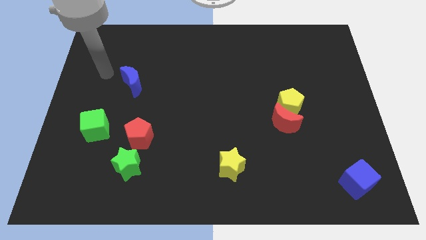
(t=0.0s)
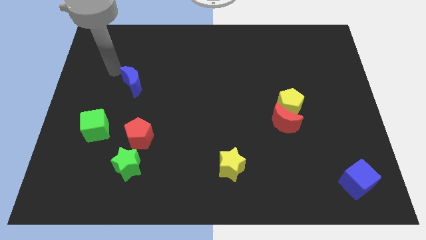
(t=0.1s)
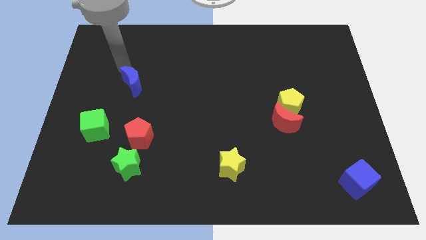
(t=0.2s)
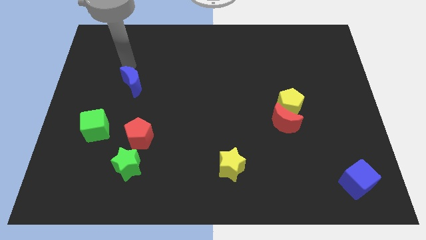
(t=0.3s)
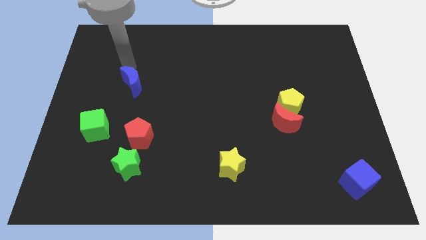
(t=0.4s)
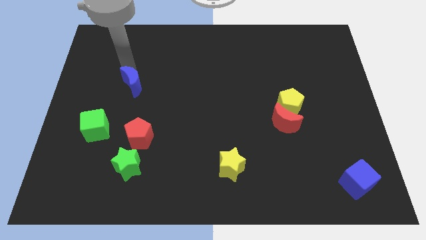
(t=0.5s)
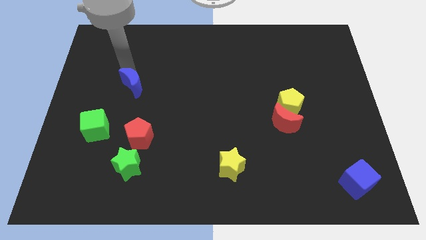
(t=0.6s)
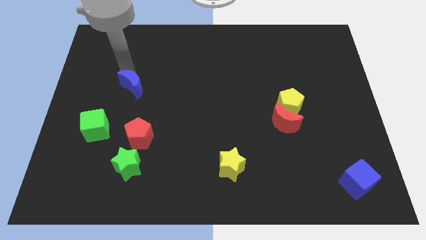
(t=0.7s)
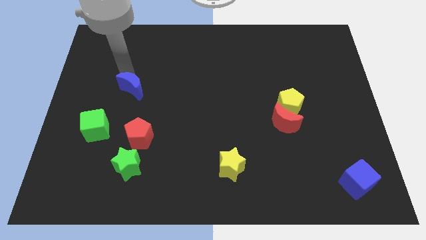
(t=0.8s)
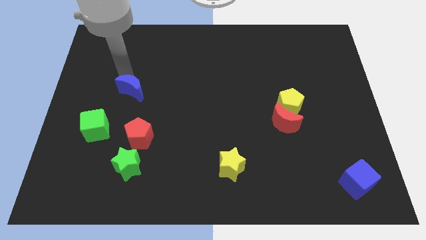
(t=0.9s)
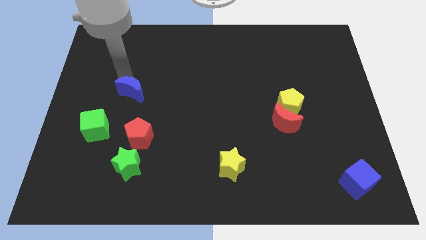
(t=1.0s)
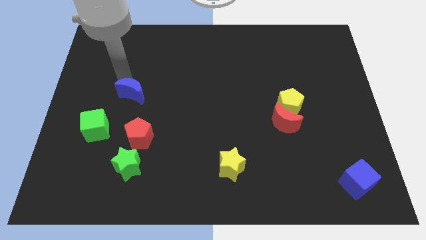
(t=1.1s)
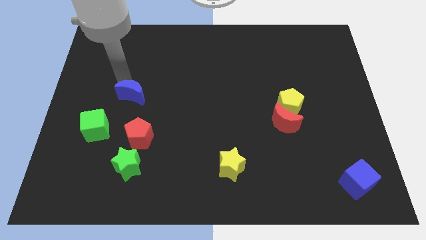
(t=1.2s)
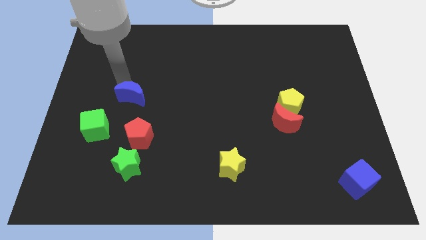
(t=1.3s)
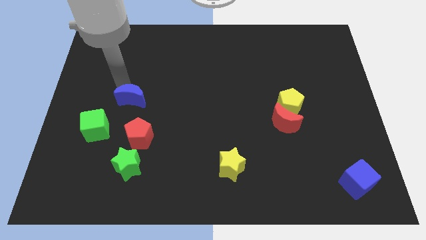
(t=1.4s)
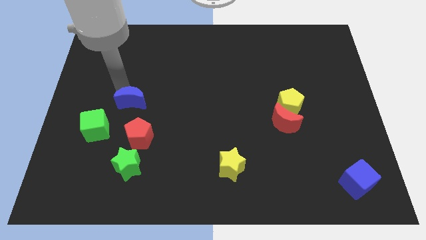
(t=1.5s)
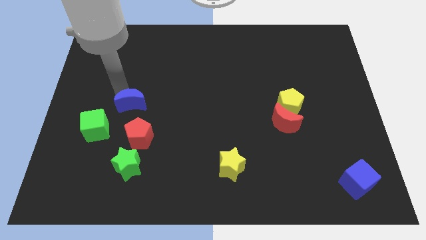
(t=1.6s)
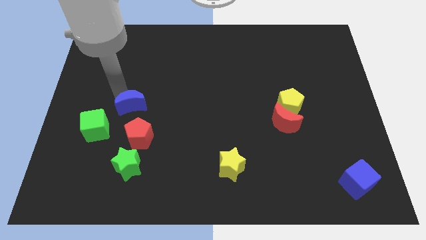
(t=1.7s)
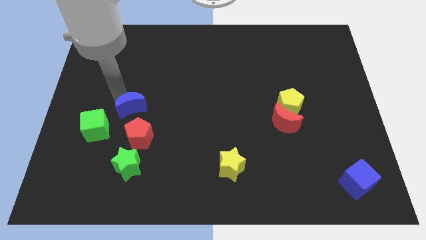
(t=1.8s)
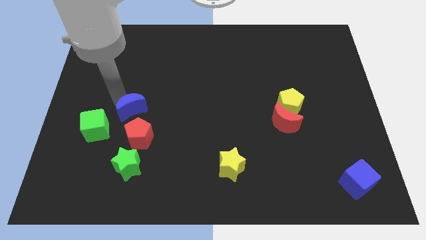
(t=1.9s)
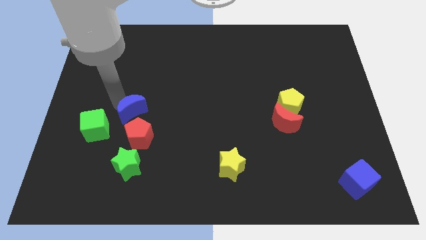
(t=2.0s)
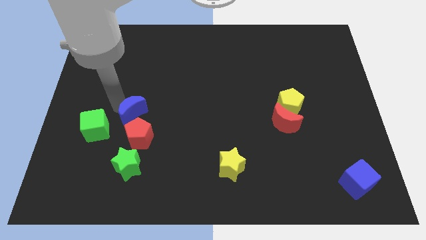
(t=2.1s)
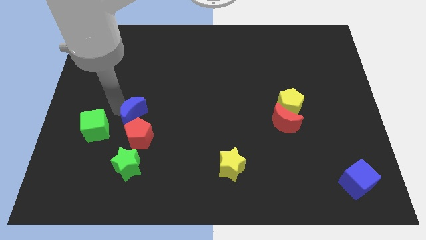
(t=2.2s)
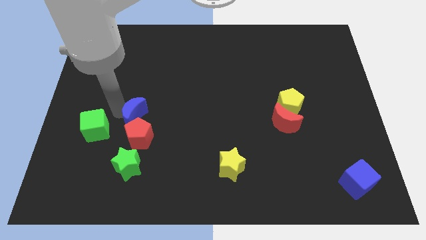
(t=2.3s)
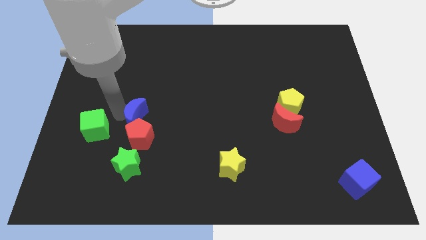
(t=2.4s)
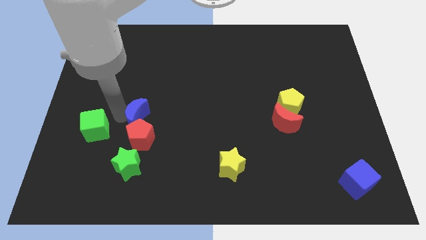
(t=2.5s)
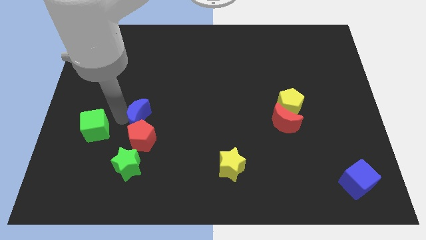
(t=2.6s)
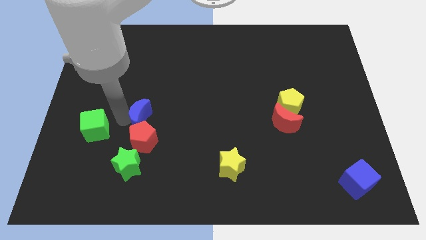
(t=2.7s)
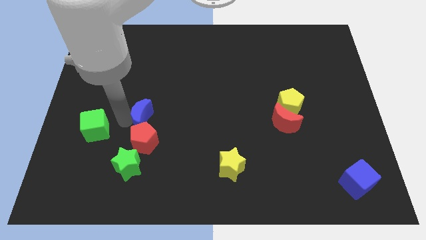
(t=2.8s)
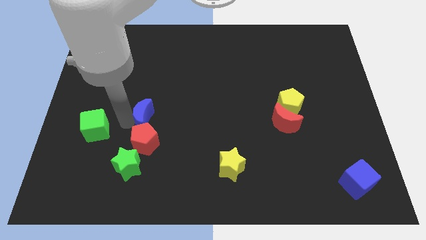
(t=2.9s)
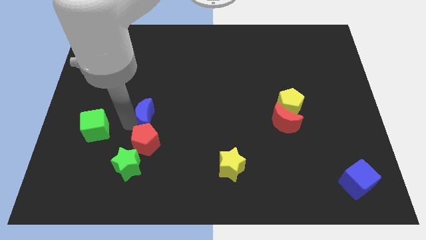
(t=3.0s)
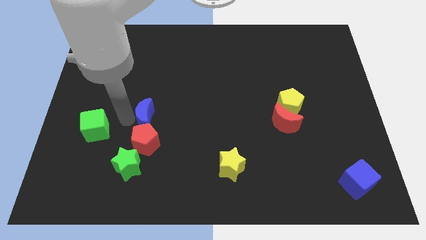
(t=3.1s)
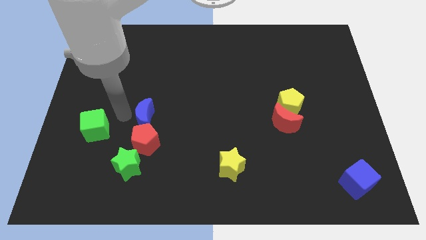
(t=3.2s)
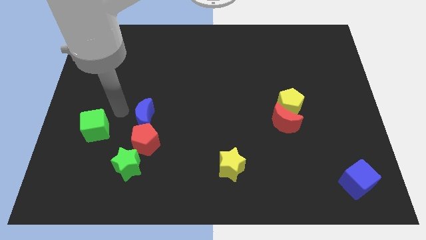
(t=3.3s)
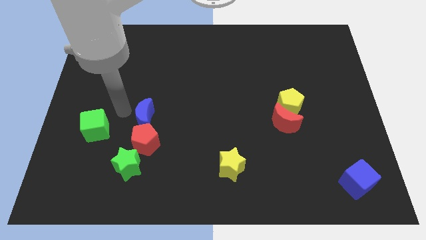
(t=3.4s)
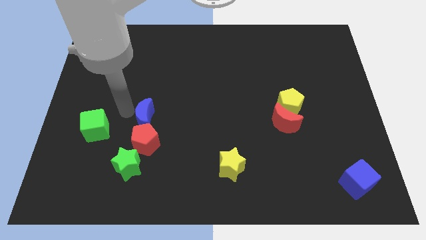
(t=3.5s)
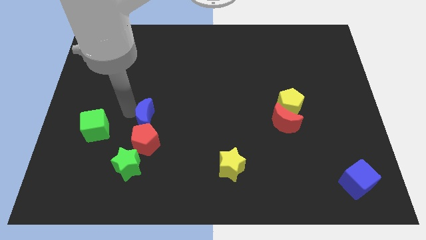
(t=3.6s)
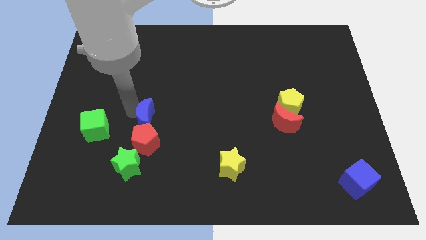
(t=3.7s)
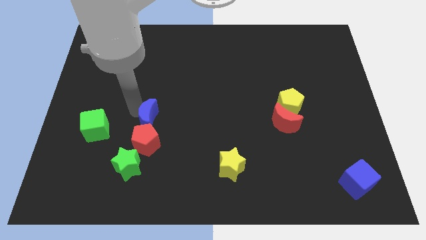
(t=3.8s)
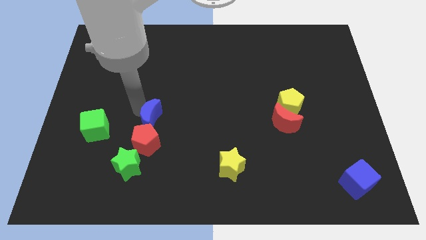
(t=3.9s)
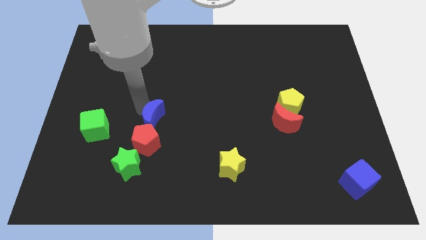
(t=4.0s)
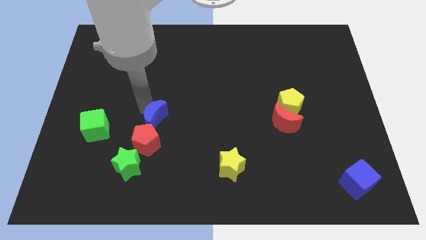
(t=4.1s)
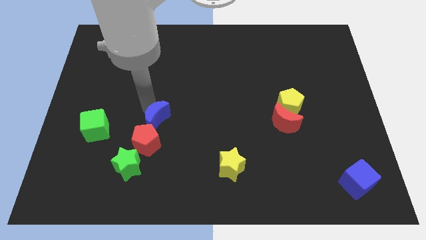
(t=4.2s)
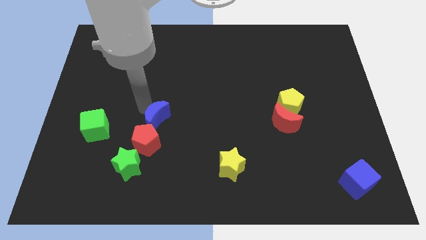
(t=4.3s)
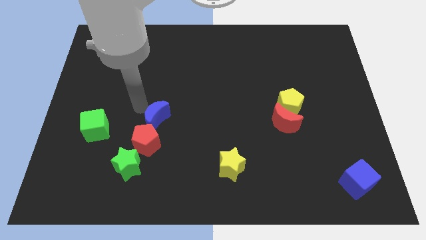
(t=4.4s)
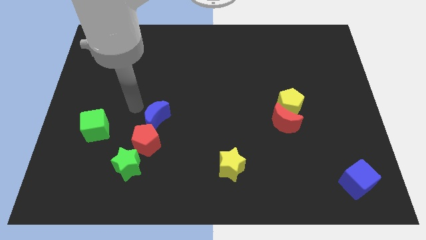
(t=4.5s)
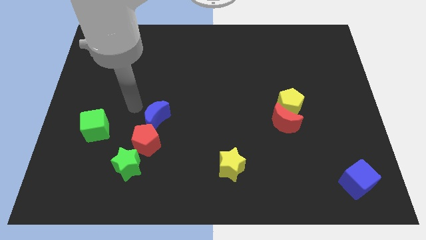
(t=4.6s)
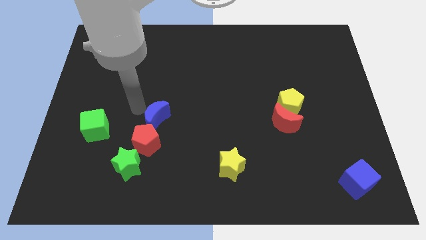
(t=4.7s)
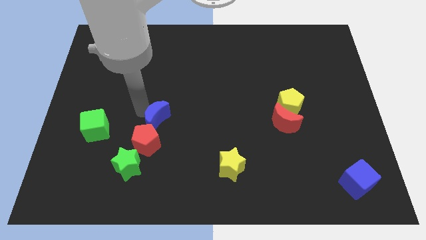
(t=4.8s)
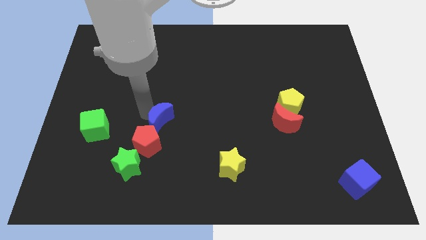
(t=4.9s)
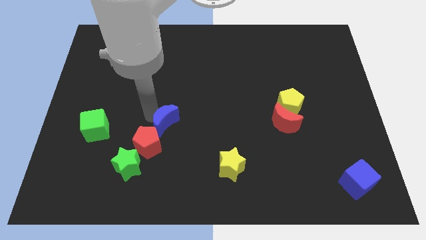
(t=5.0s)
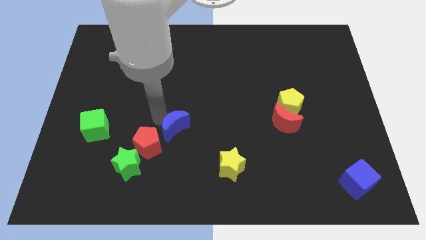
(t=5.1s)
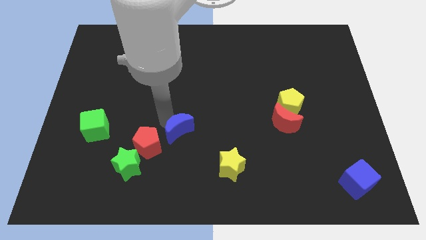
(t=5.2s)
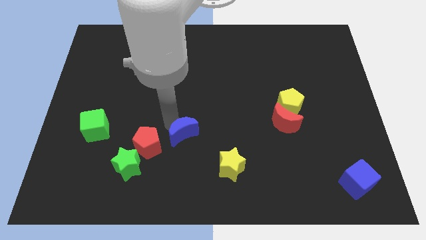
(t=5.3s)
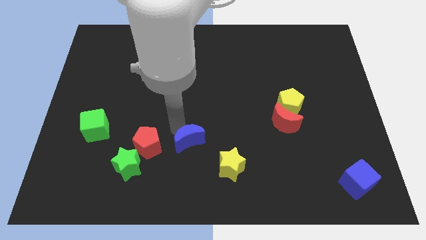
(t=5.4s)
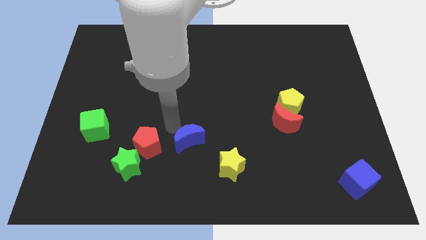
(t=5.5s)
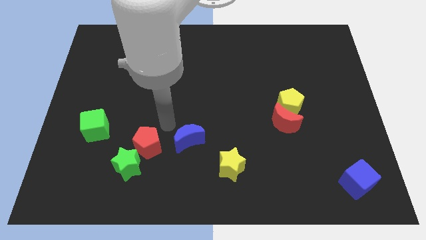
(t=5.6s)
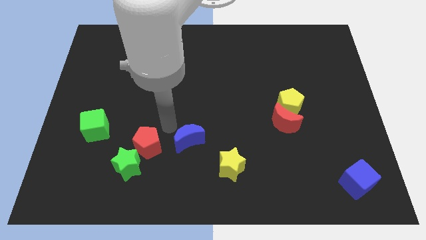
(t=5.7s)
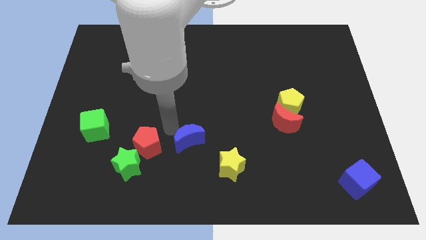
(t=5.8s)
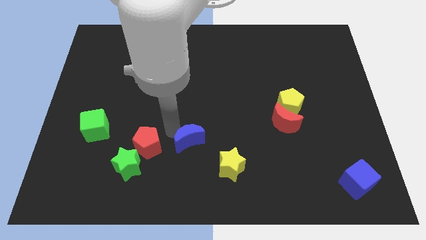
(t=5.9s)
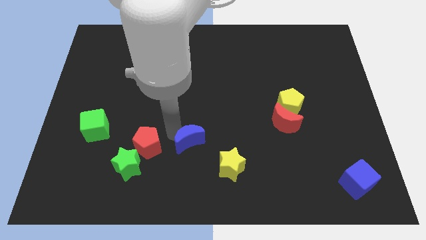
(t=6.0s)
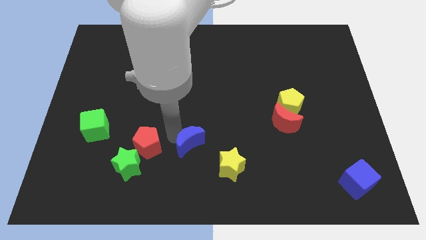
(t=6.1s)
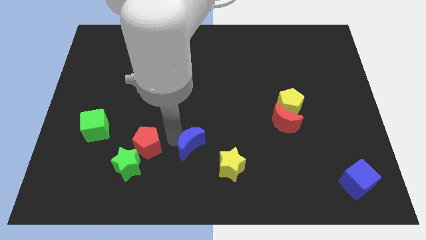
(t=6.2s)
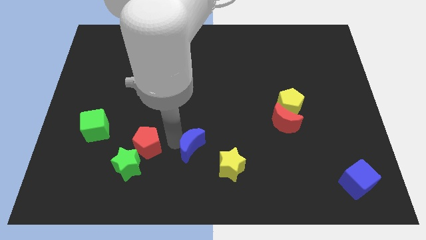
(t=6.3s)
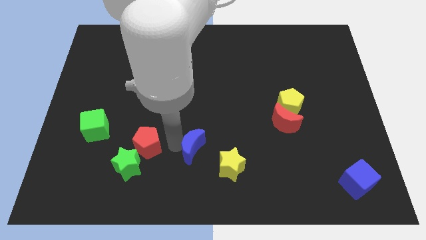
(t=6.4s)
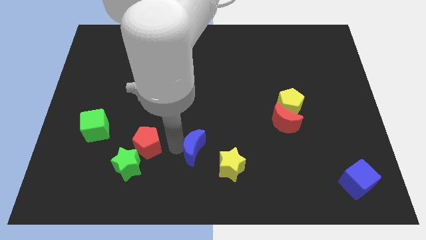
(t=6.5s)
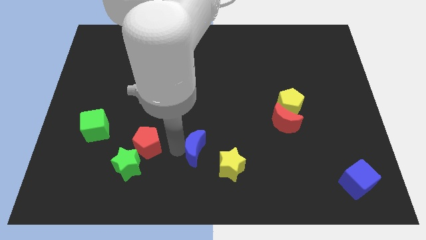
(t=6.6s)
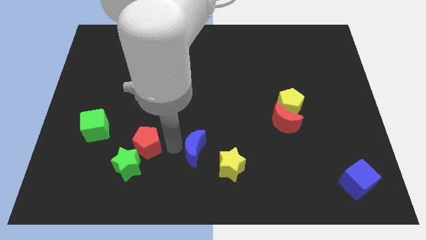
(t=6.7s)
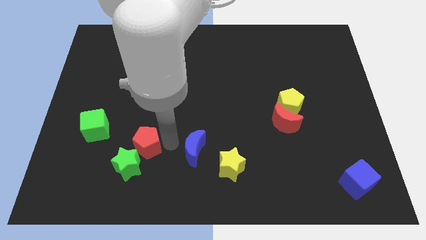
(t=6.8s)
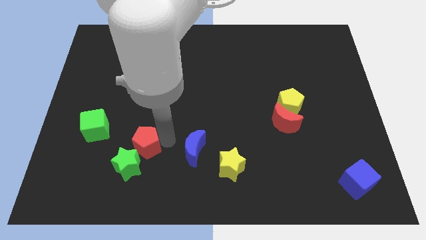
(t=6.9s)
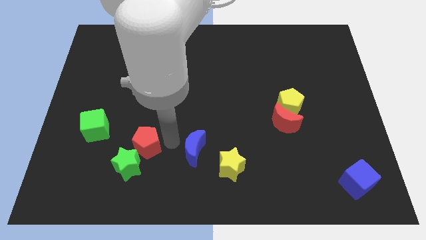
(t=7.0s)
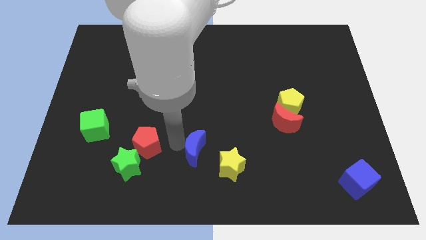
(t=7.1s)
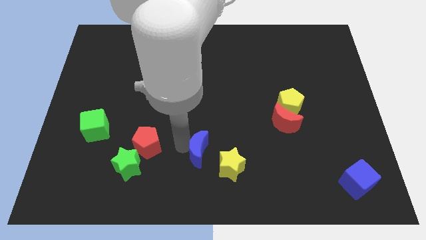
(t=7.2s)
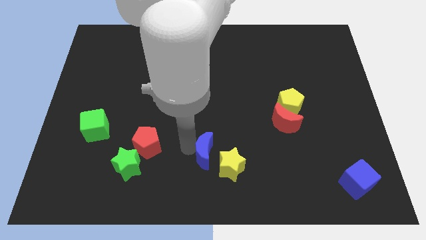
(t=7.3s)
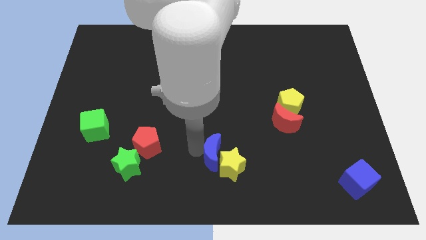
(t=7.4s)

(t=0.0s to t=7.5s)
push the blue moon towards the yellow star

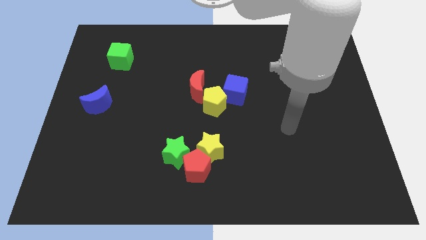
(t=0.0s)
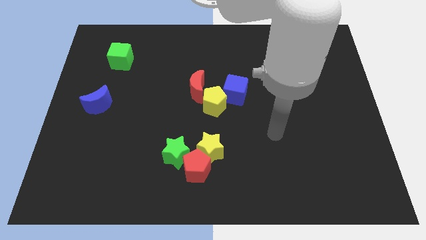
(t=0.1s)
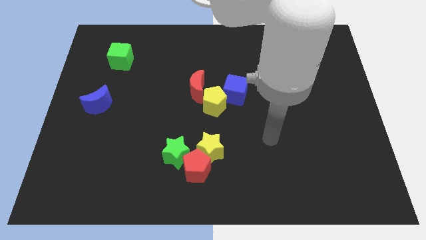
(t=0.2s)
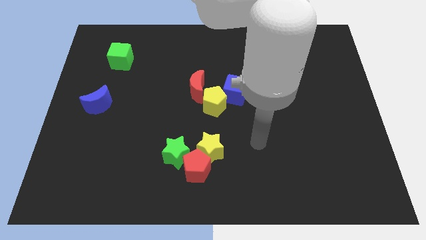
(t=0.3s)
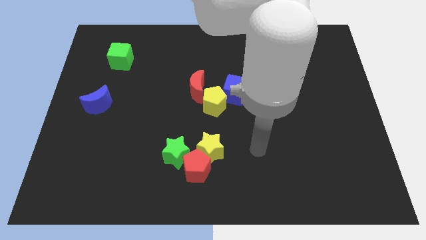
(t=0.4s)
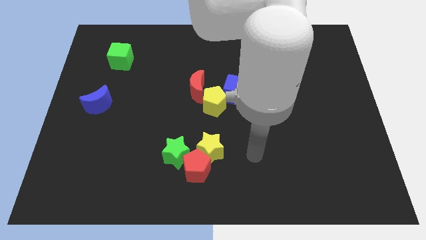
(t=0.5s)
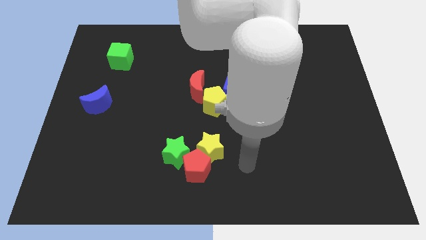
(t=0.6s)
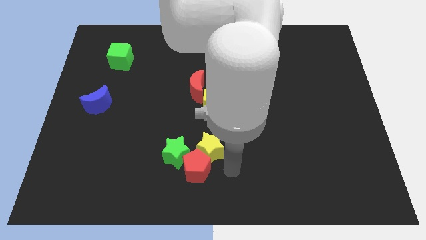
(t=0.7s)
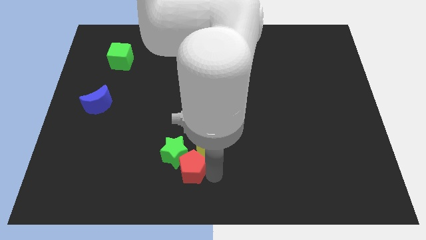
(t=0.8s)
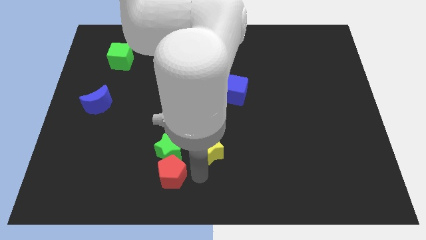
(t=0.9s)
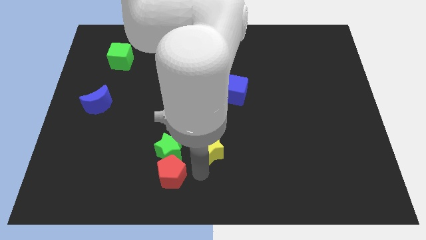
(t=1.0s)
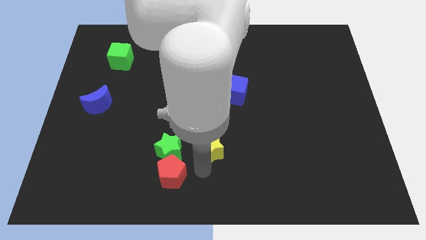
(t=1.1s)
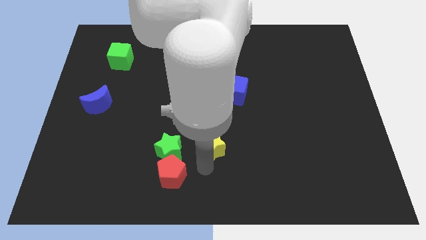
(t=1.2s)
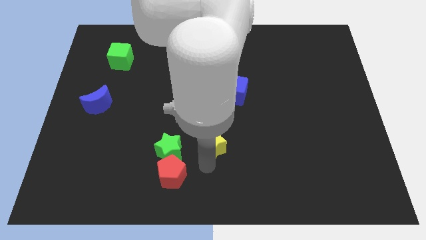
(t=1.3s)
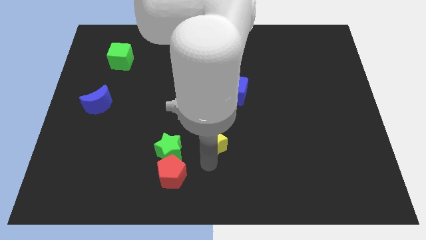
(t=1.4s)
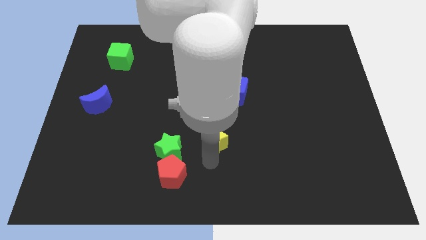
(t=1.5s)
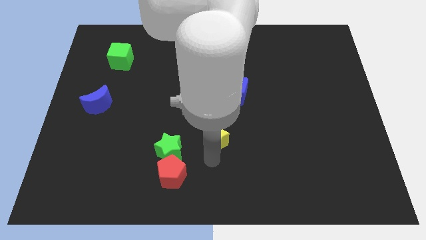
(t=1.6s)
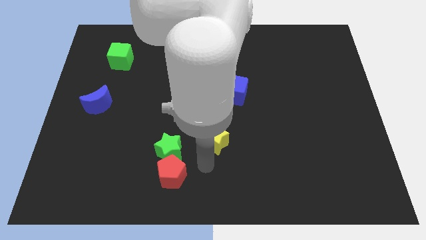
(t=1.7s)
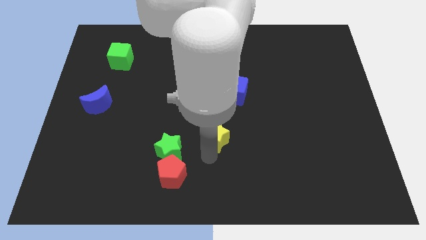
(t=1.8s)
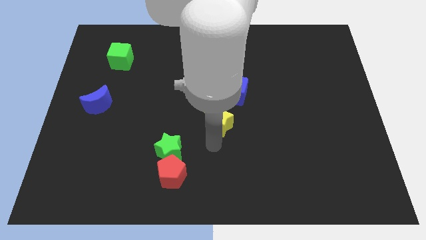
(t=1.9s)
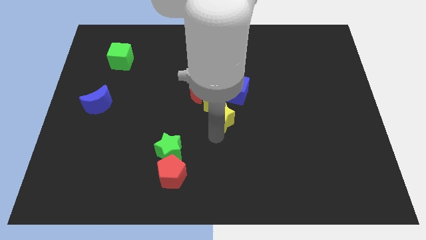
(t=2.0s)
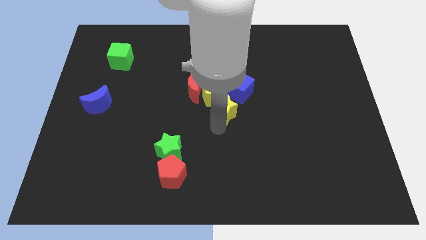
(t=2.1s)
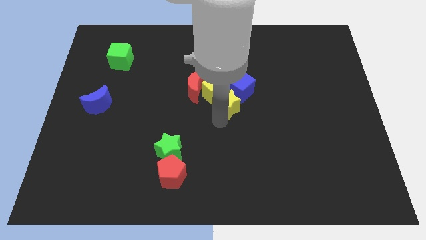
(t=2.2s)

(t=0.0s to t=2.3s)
slide the yellow star towards the blue cube
